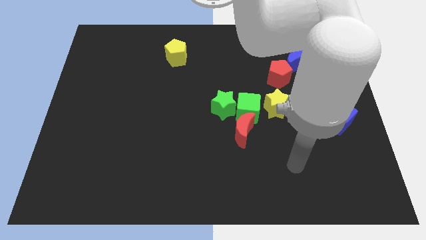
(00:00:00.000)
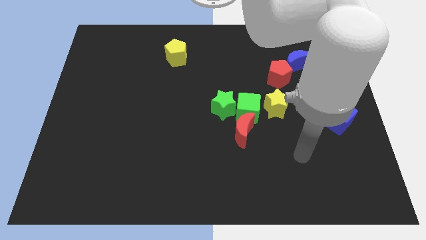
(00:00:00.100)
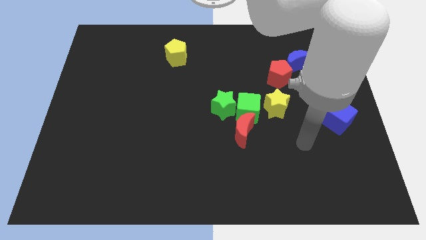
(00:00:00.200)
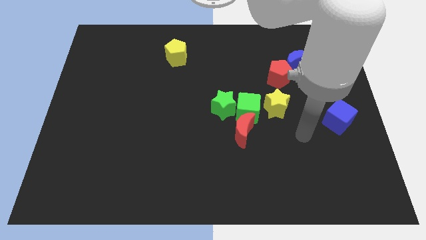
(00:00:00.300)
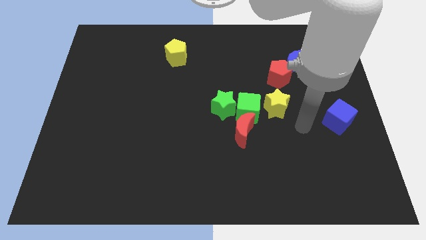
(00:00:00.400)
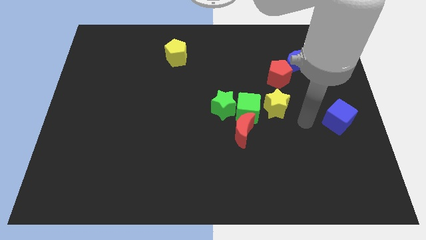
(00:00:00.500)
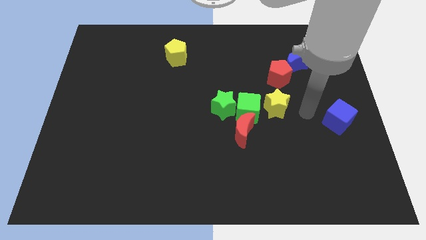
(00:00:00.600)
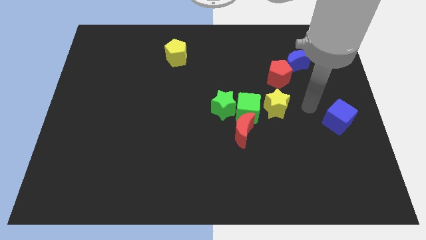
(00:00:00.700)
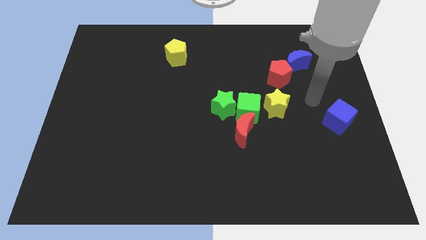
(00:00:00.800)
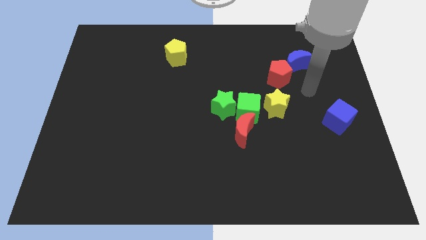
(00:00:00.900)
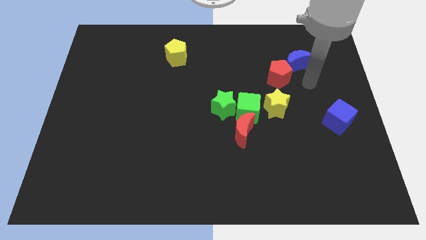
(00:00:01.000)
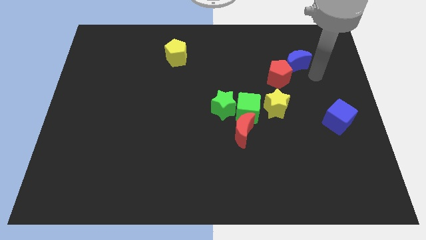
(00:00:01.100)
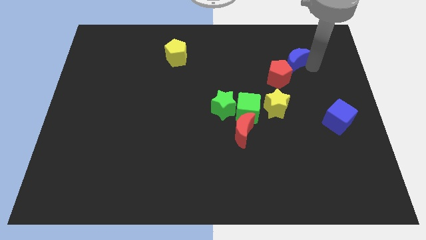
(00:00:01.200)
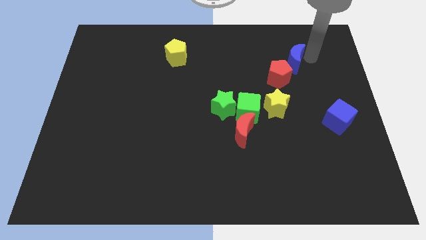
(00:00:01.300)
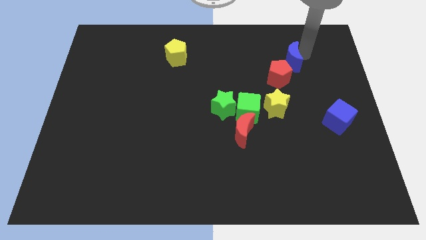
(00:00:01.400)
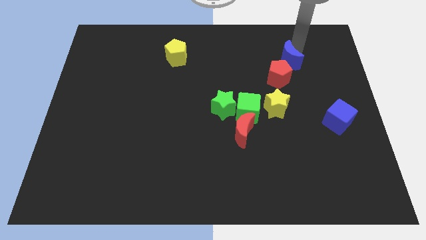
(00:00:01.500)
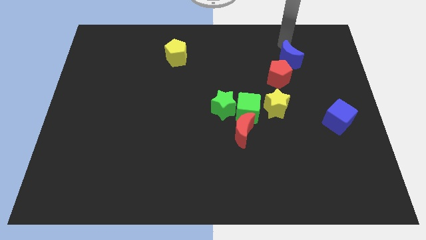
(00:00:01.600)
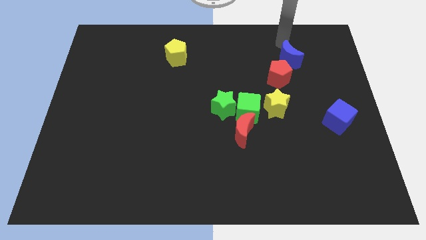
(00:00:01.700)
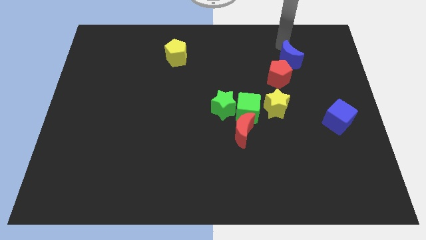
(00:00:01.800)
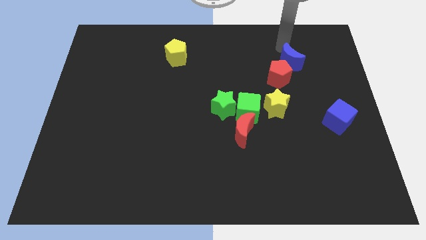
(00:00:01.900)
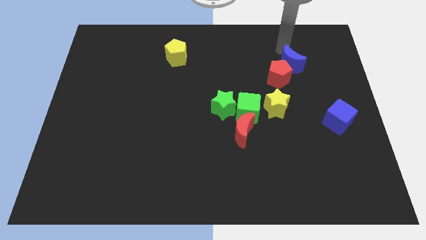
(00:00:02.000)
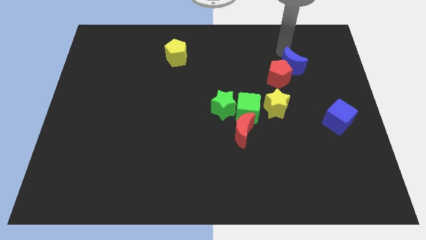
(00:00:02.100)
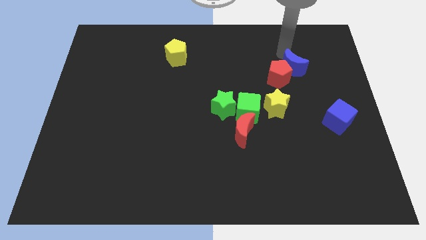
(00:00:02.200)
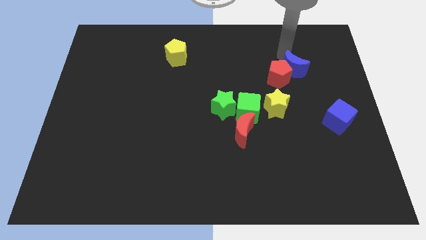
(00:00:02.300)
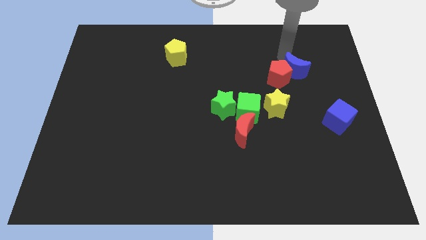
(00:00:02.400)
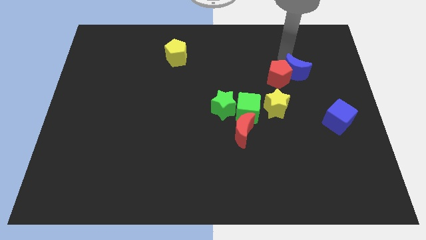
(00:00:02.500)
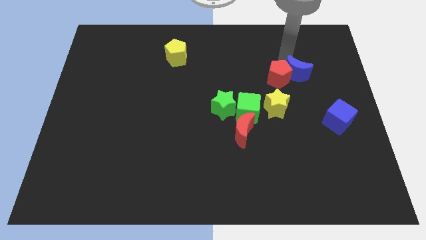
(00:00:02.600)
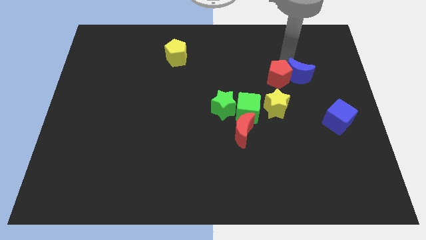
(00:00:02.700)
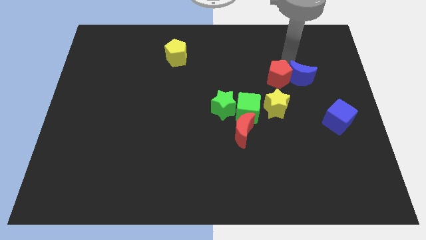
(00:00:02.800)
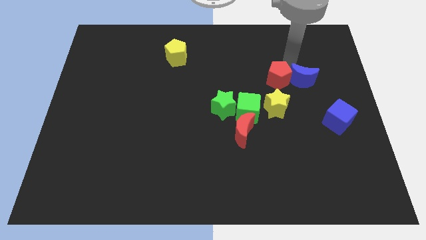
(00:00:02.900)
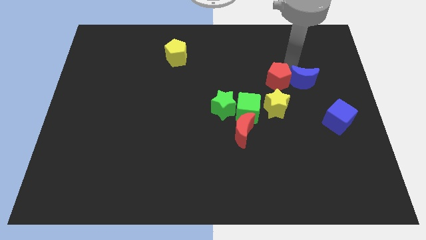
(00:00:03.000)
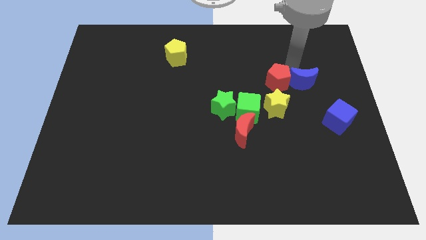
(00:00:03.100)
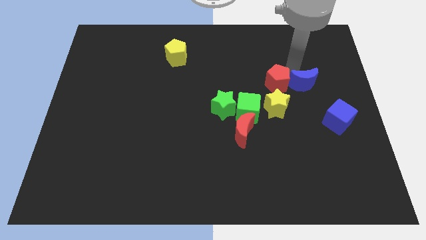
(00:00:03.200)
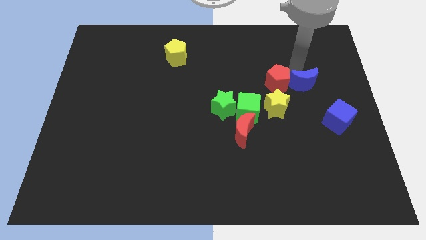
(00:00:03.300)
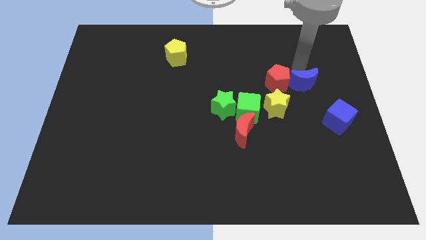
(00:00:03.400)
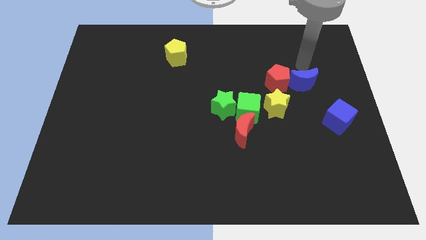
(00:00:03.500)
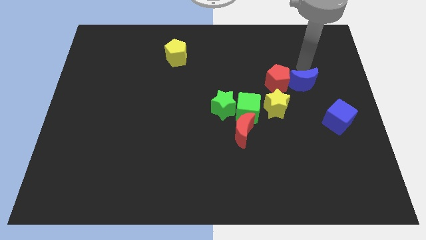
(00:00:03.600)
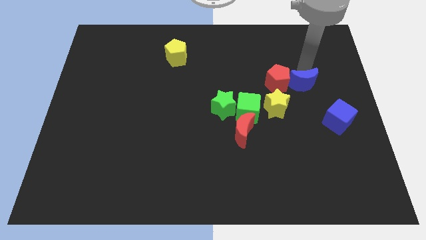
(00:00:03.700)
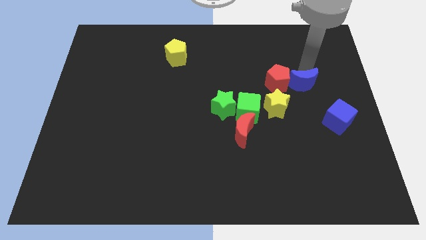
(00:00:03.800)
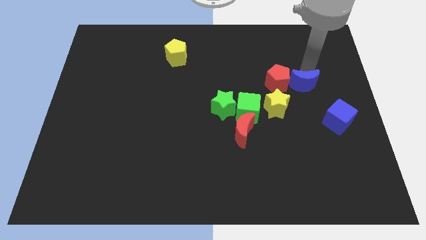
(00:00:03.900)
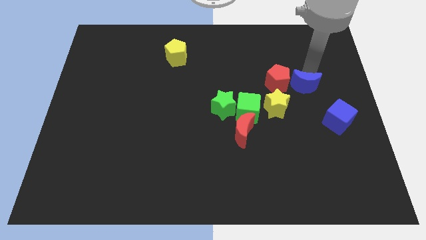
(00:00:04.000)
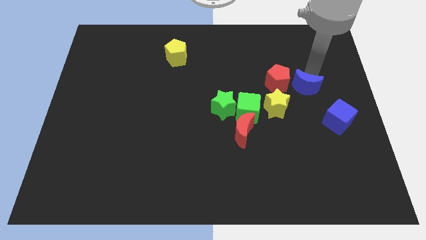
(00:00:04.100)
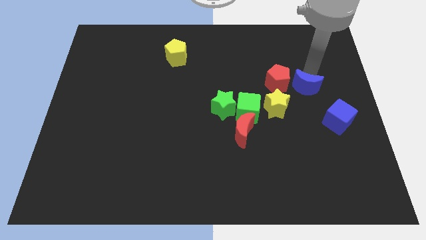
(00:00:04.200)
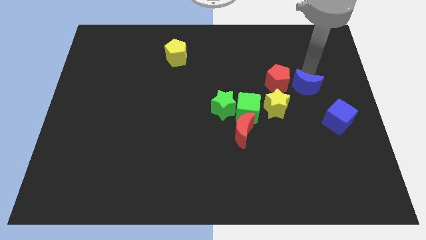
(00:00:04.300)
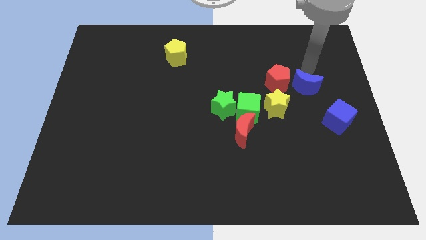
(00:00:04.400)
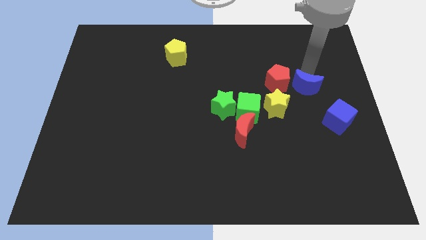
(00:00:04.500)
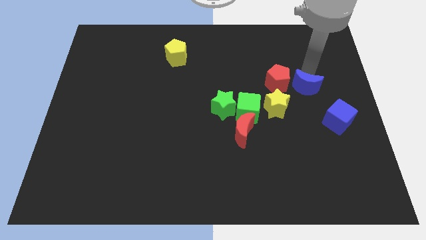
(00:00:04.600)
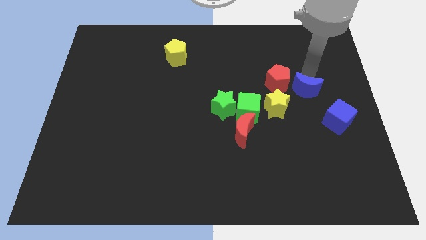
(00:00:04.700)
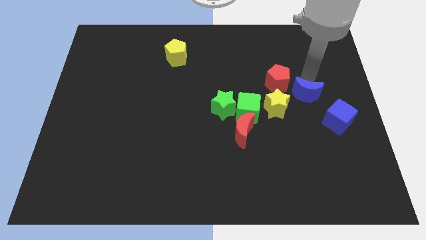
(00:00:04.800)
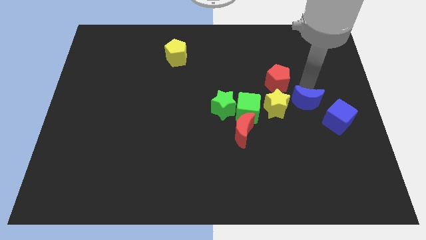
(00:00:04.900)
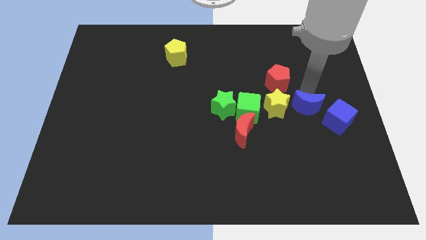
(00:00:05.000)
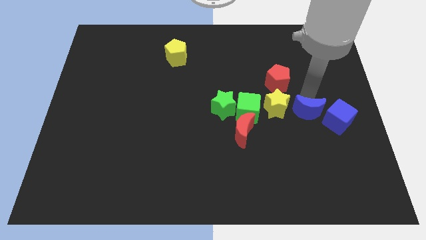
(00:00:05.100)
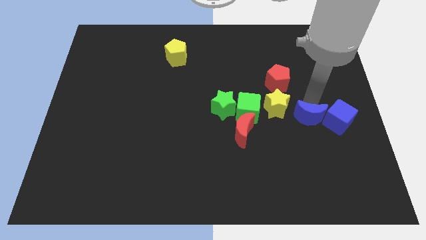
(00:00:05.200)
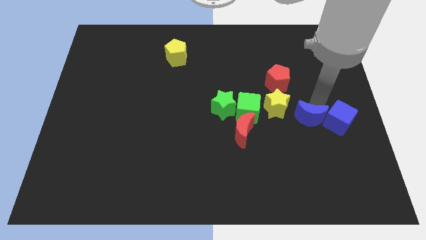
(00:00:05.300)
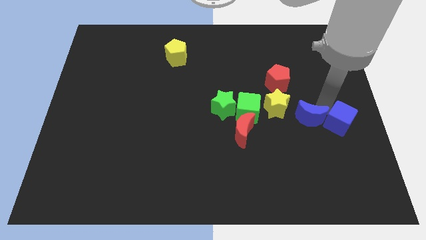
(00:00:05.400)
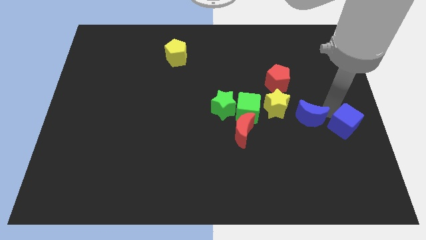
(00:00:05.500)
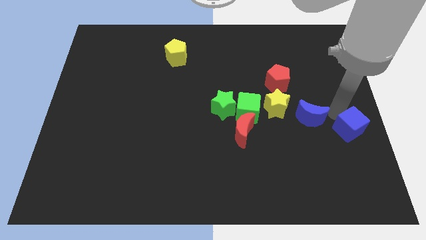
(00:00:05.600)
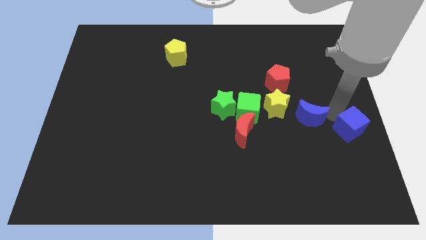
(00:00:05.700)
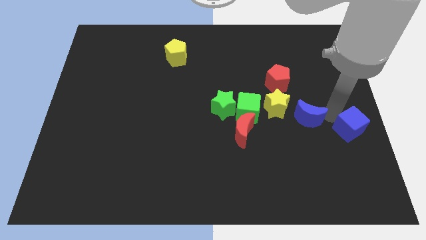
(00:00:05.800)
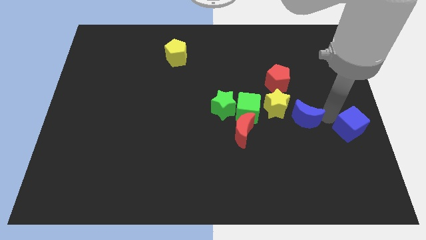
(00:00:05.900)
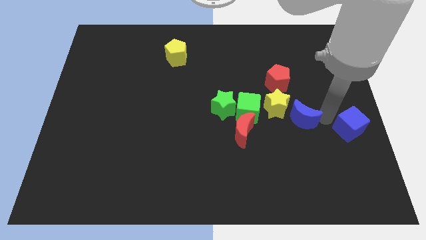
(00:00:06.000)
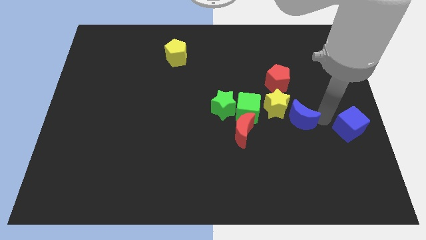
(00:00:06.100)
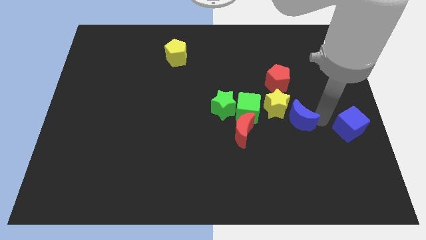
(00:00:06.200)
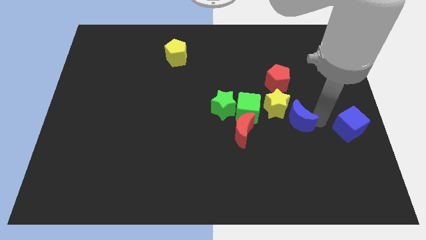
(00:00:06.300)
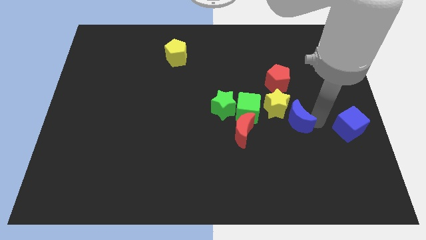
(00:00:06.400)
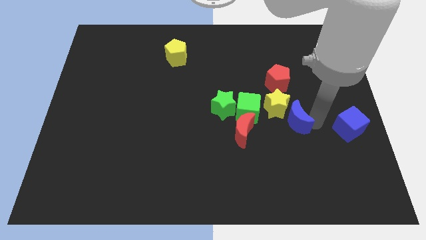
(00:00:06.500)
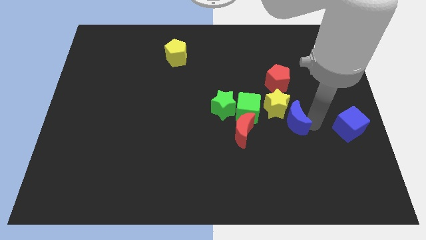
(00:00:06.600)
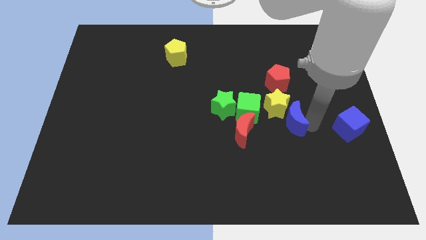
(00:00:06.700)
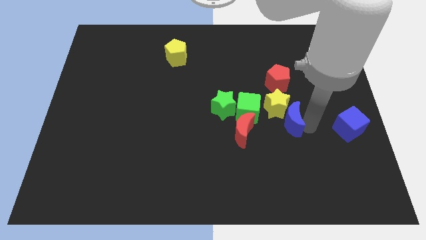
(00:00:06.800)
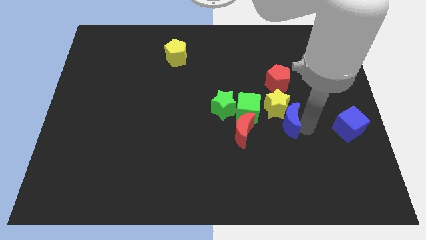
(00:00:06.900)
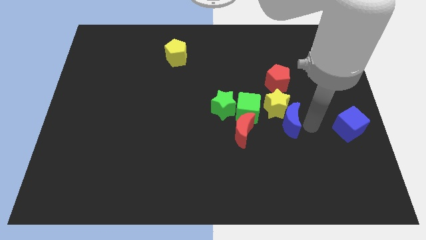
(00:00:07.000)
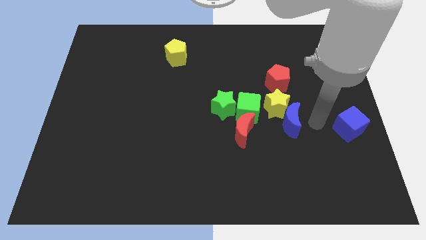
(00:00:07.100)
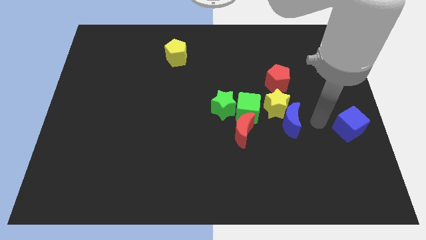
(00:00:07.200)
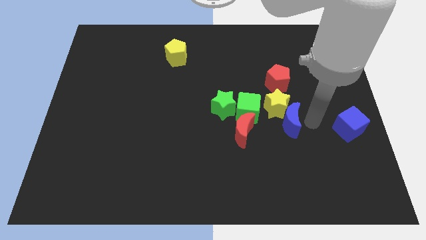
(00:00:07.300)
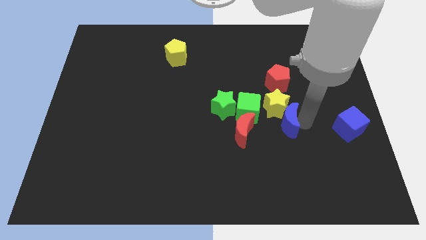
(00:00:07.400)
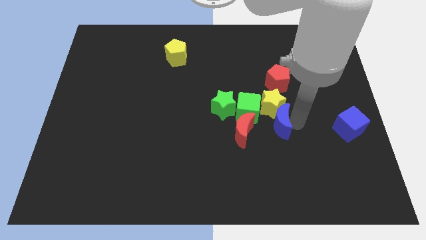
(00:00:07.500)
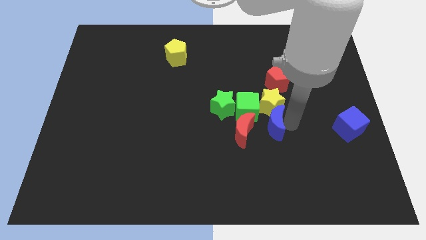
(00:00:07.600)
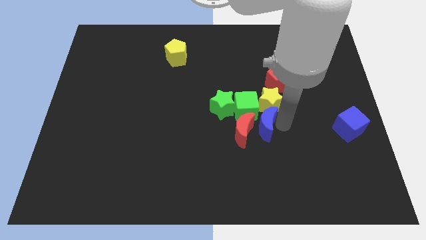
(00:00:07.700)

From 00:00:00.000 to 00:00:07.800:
push the blue moon to the red moon
